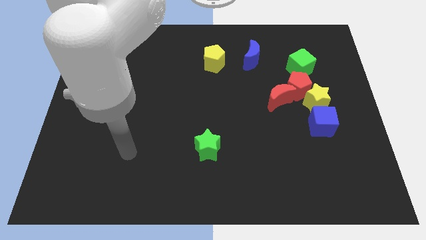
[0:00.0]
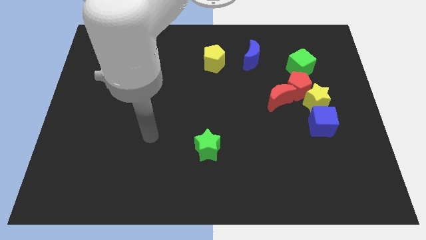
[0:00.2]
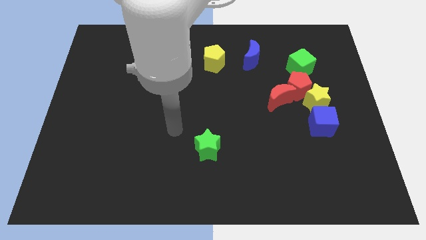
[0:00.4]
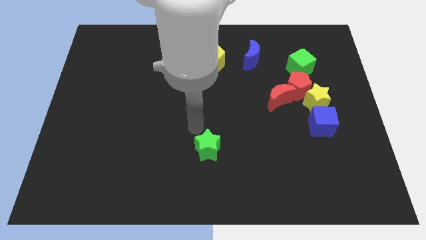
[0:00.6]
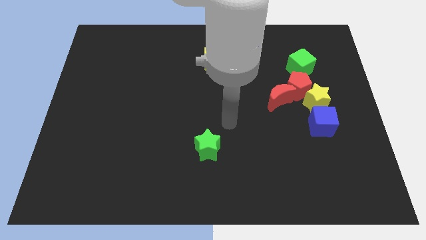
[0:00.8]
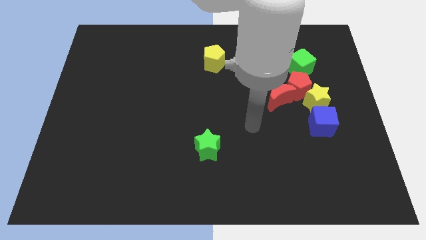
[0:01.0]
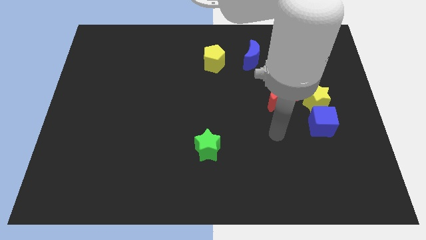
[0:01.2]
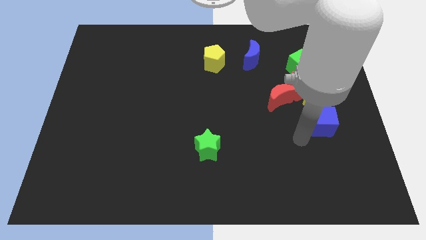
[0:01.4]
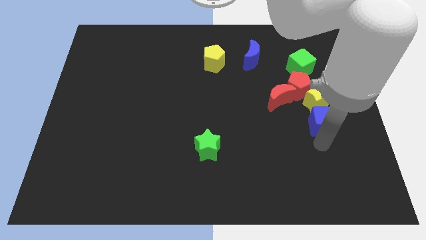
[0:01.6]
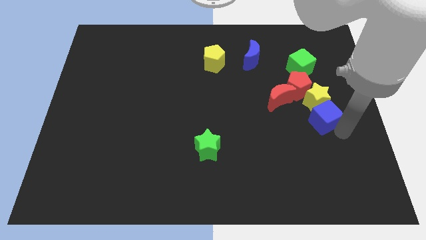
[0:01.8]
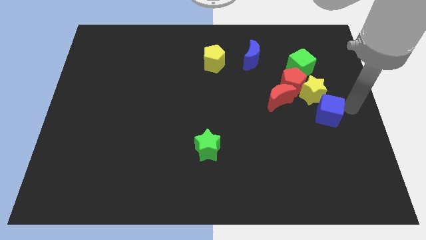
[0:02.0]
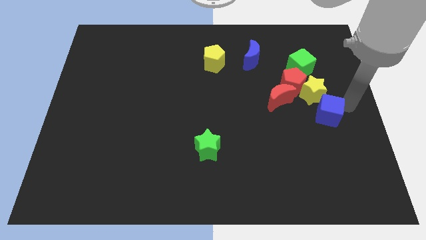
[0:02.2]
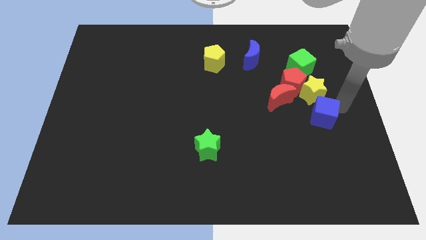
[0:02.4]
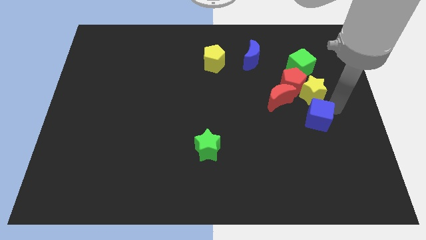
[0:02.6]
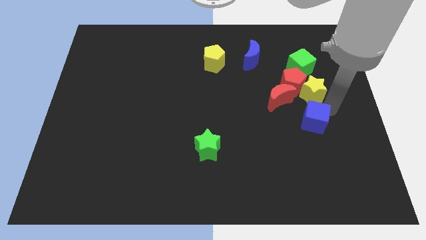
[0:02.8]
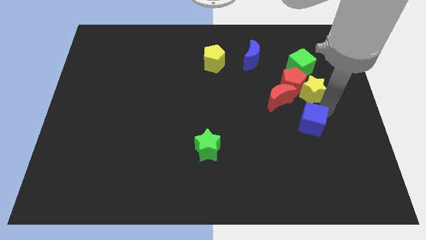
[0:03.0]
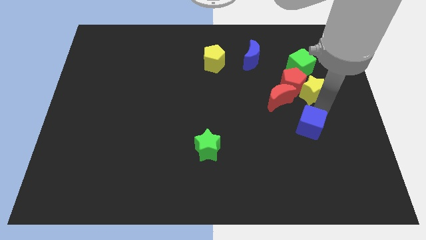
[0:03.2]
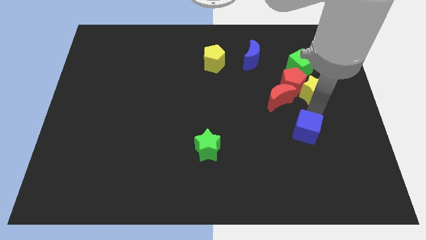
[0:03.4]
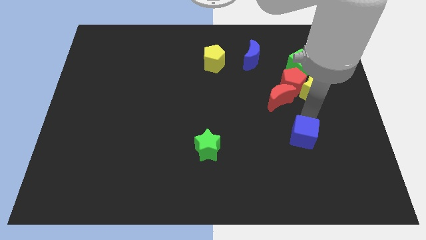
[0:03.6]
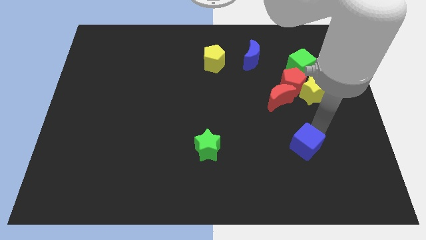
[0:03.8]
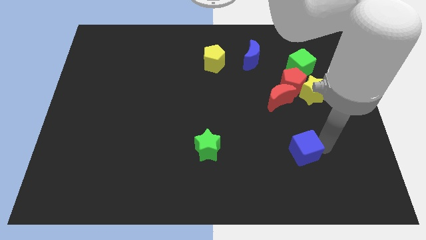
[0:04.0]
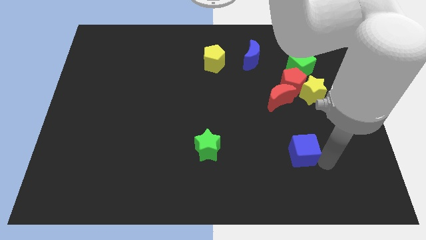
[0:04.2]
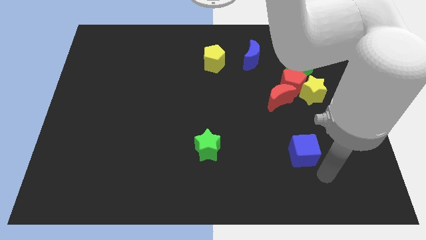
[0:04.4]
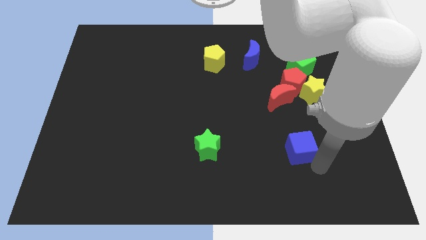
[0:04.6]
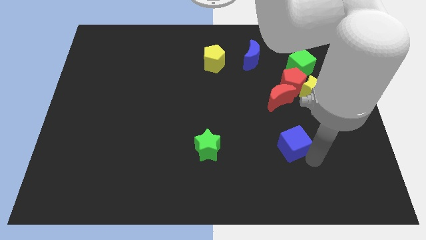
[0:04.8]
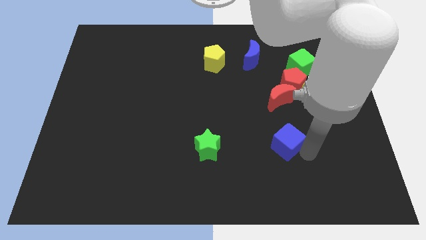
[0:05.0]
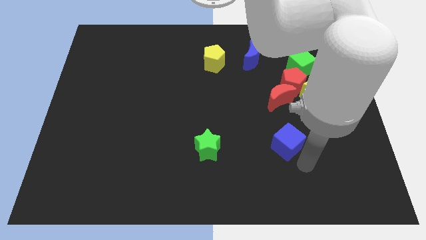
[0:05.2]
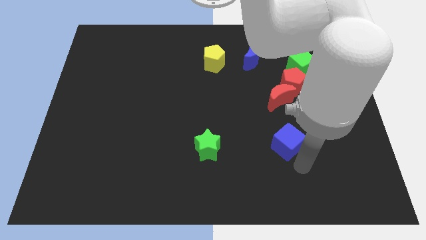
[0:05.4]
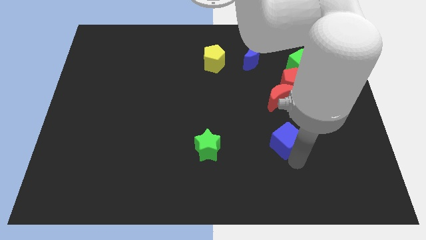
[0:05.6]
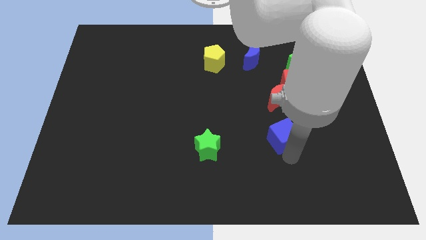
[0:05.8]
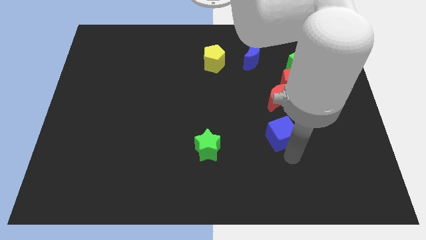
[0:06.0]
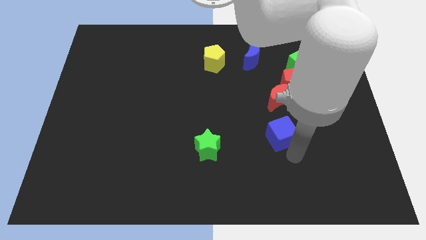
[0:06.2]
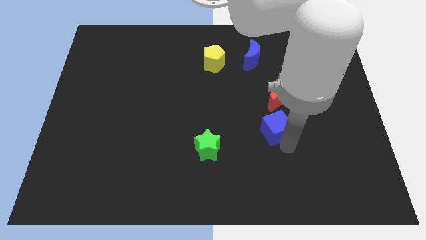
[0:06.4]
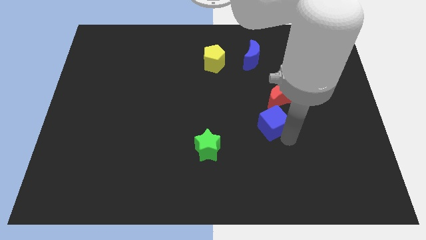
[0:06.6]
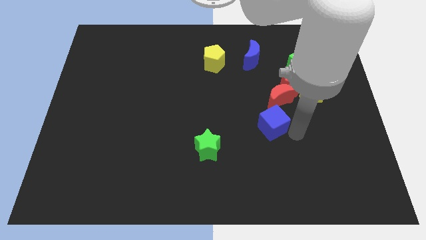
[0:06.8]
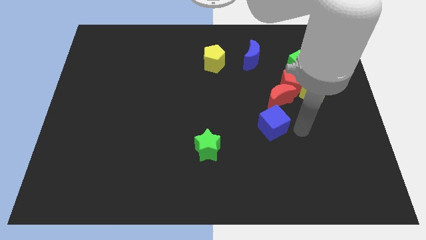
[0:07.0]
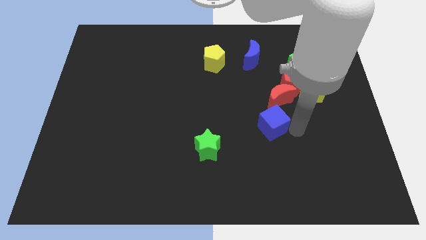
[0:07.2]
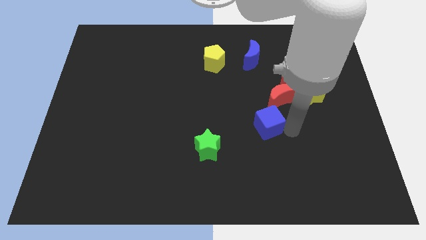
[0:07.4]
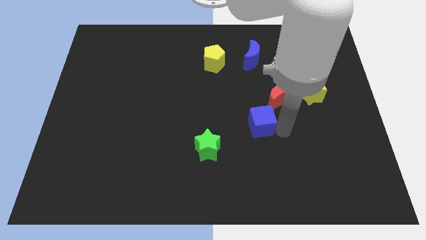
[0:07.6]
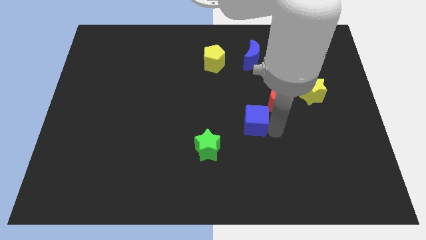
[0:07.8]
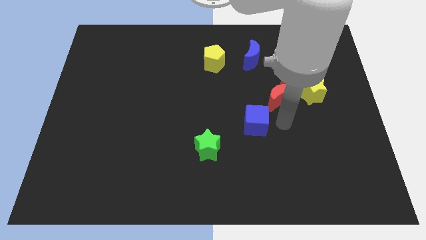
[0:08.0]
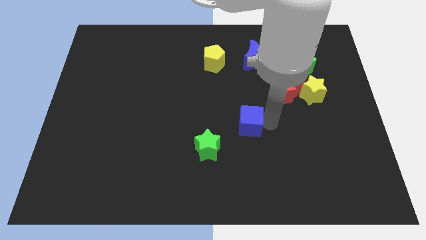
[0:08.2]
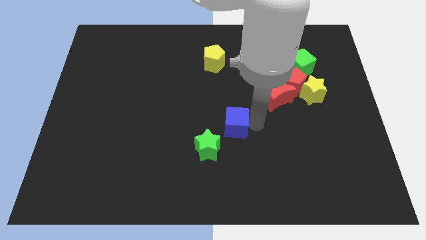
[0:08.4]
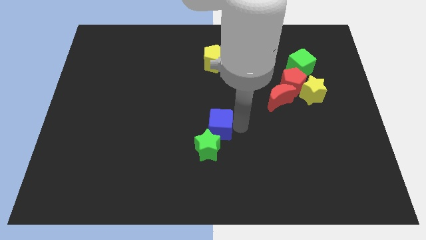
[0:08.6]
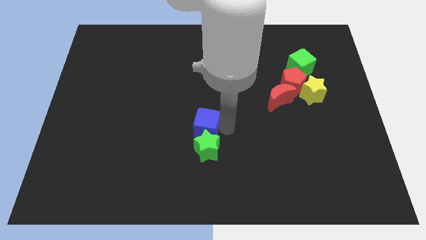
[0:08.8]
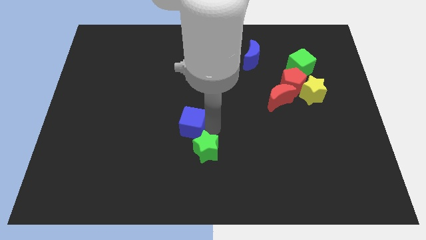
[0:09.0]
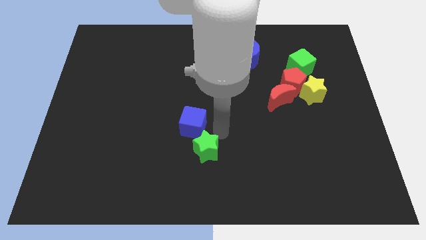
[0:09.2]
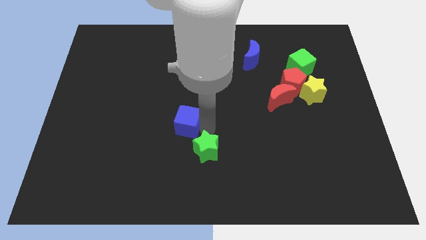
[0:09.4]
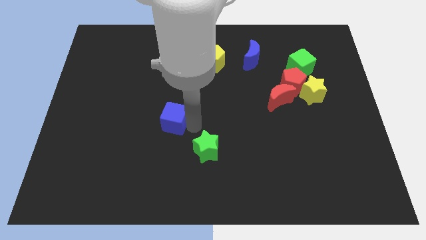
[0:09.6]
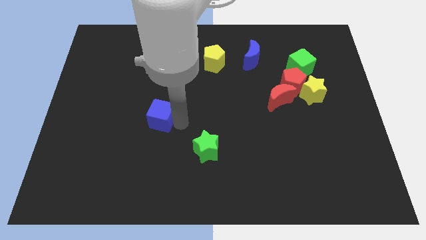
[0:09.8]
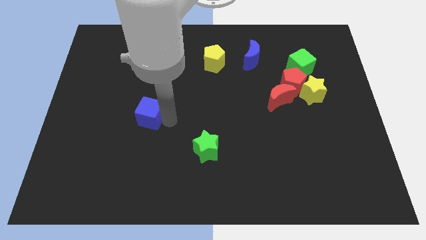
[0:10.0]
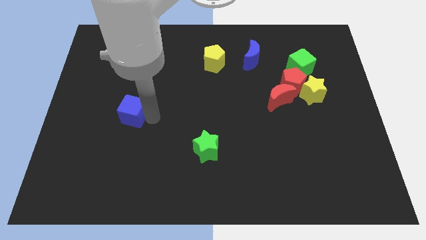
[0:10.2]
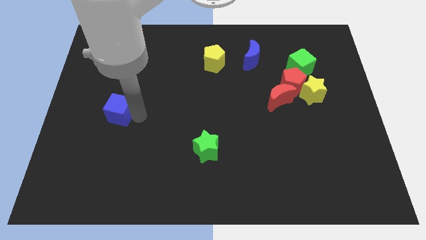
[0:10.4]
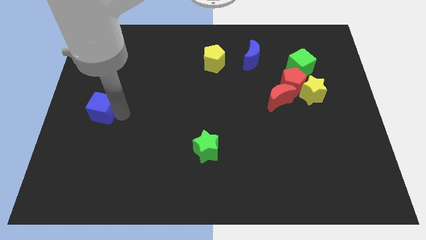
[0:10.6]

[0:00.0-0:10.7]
push the blue cube to the left side

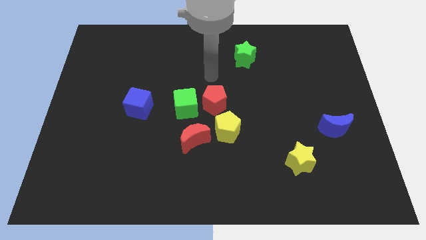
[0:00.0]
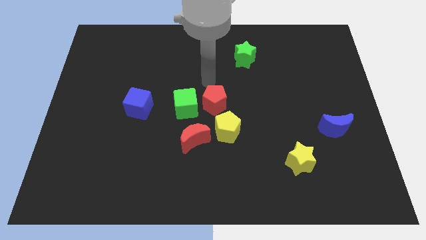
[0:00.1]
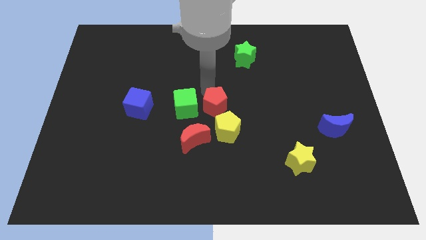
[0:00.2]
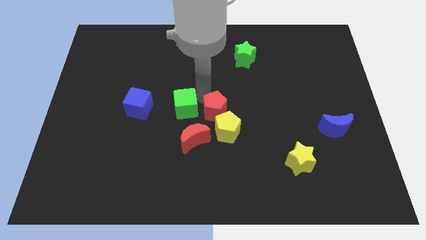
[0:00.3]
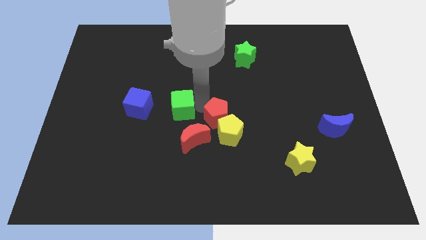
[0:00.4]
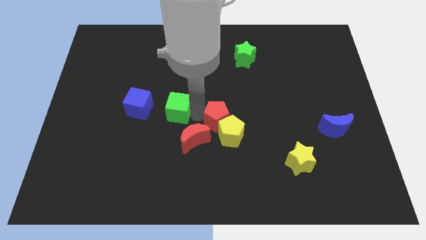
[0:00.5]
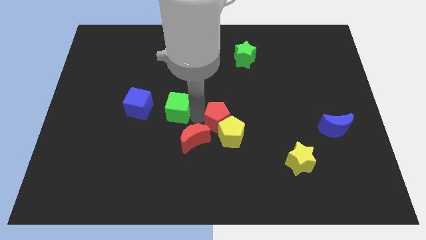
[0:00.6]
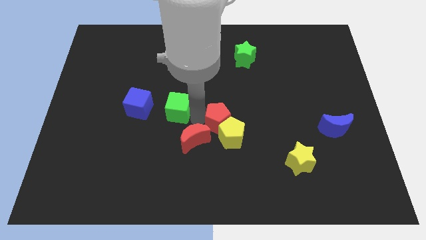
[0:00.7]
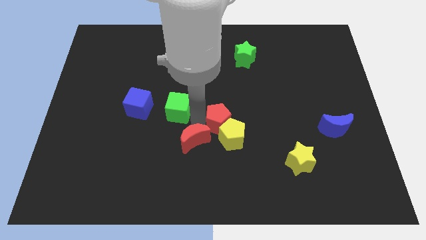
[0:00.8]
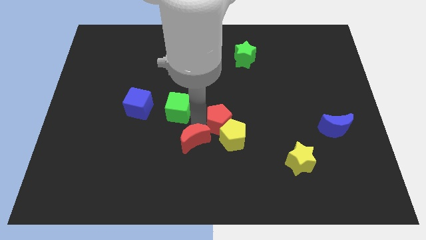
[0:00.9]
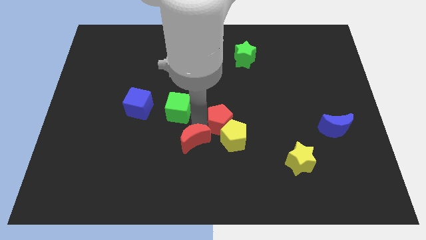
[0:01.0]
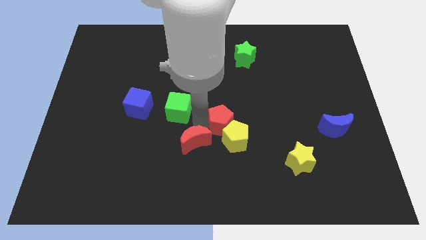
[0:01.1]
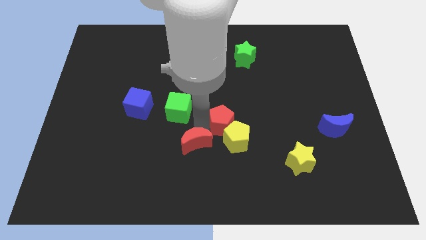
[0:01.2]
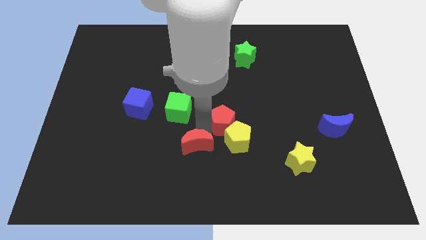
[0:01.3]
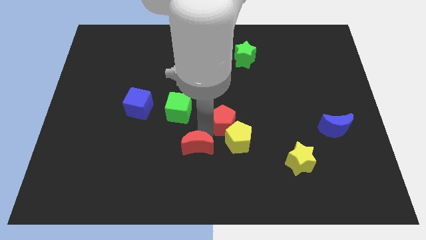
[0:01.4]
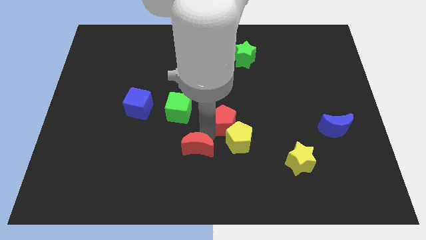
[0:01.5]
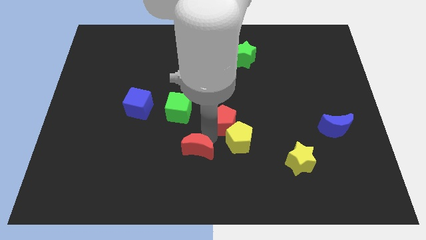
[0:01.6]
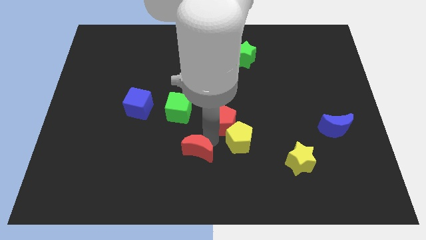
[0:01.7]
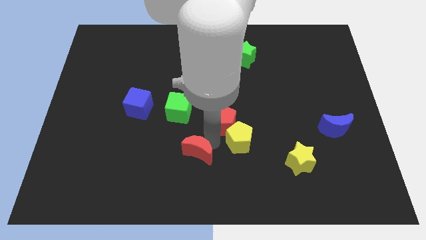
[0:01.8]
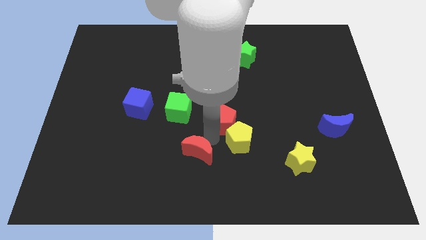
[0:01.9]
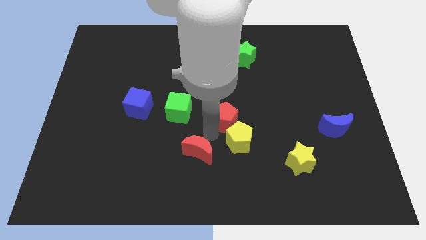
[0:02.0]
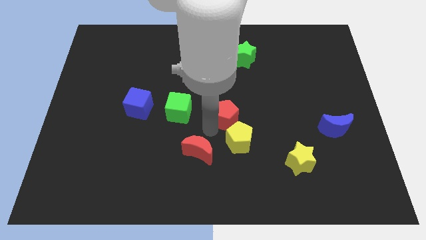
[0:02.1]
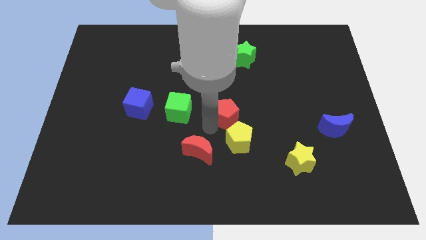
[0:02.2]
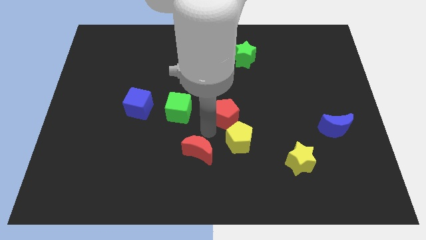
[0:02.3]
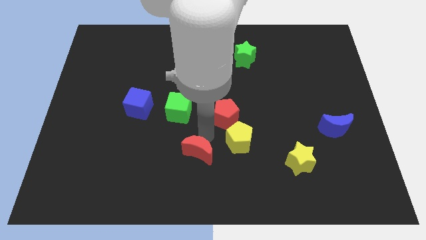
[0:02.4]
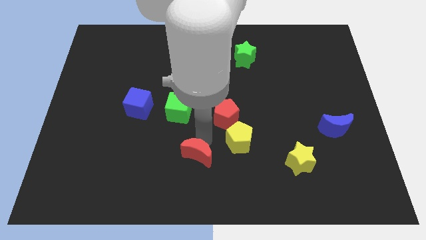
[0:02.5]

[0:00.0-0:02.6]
push the red moon to the bottom side
